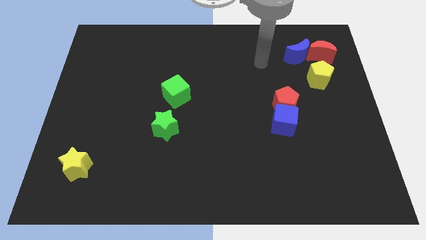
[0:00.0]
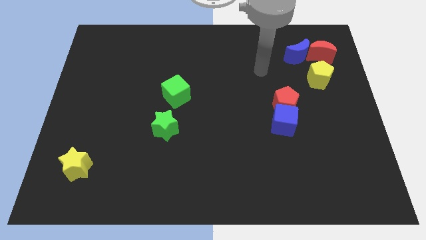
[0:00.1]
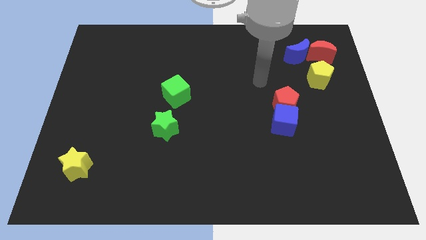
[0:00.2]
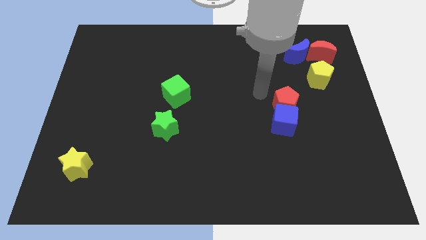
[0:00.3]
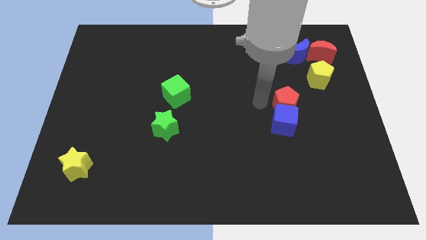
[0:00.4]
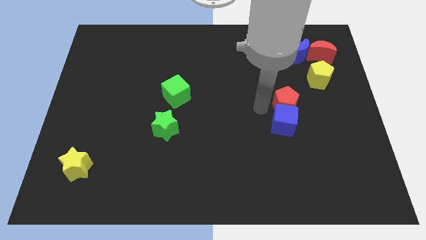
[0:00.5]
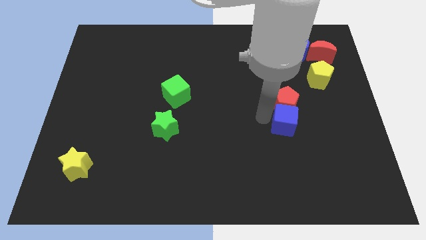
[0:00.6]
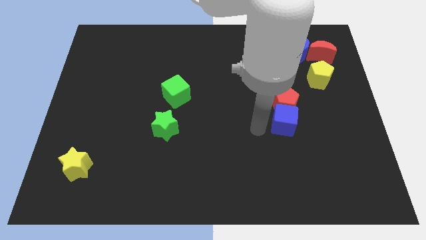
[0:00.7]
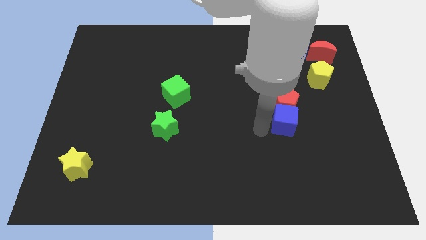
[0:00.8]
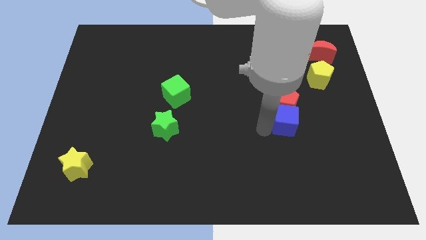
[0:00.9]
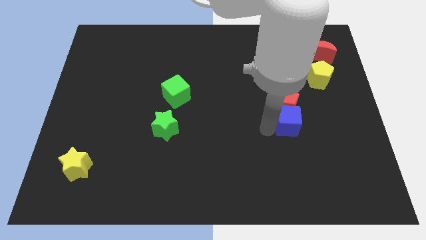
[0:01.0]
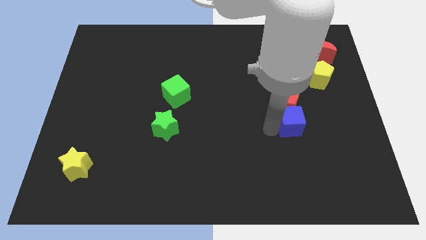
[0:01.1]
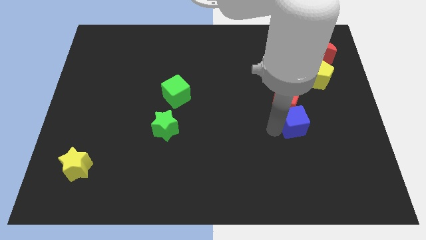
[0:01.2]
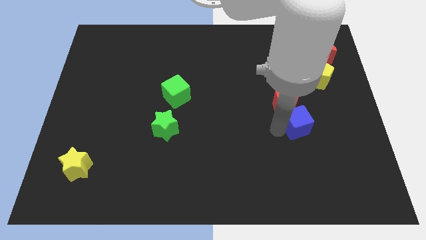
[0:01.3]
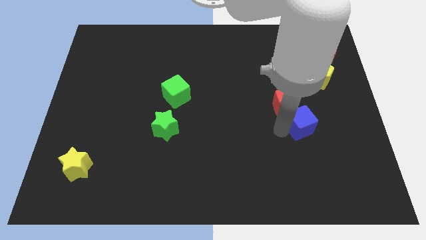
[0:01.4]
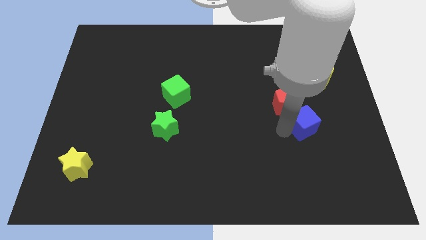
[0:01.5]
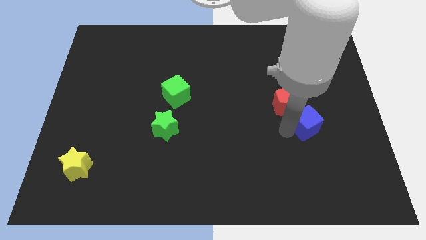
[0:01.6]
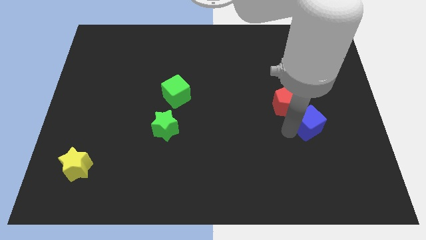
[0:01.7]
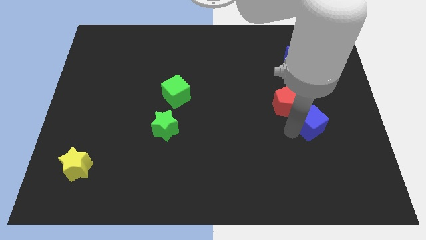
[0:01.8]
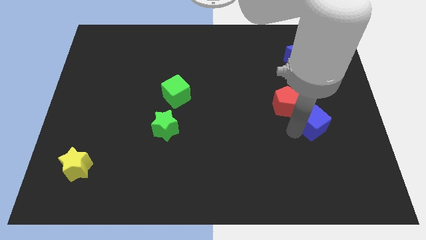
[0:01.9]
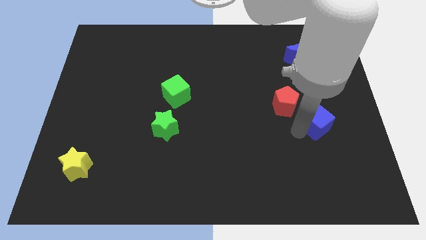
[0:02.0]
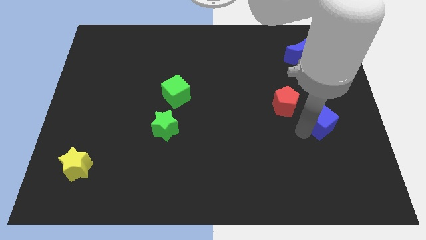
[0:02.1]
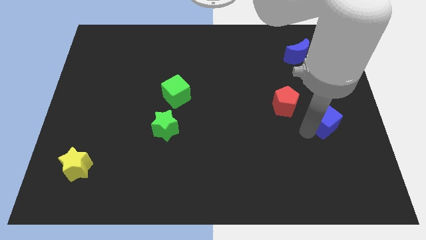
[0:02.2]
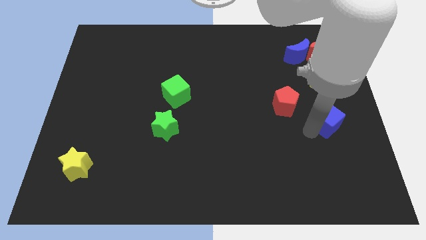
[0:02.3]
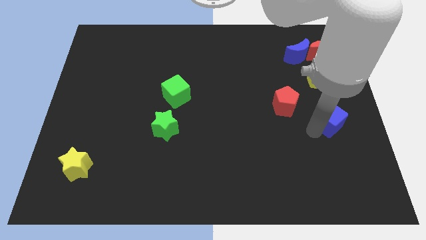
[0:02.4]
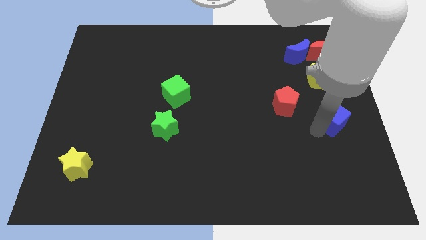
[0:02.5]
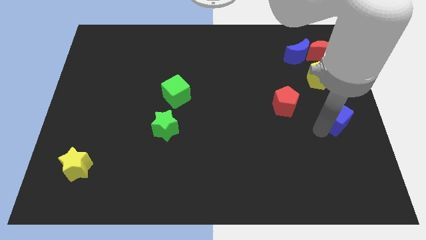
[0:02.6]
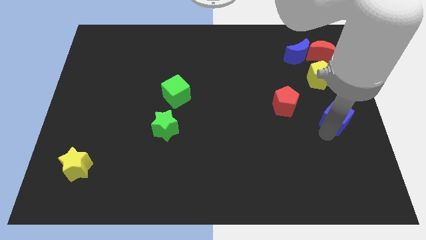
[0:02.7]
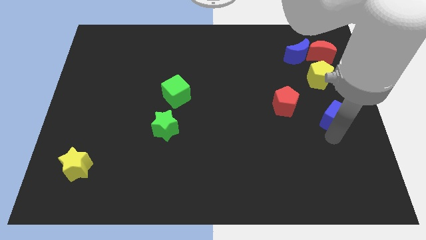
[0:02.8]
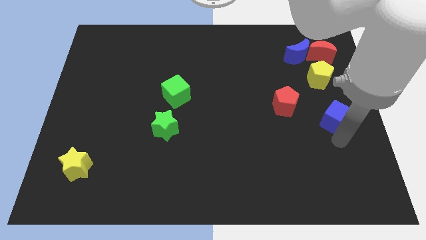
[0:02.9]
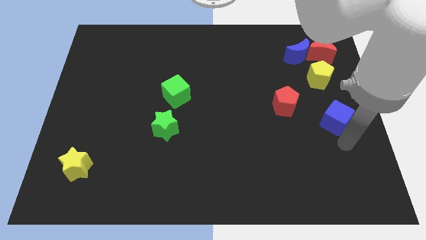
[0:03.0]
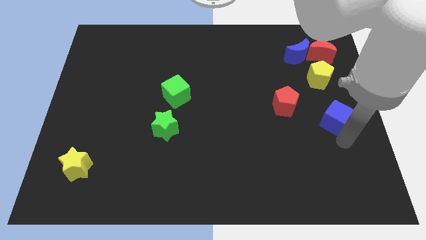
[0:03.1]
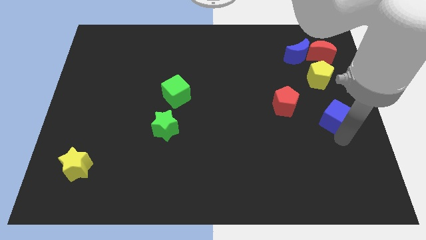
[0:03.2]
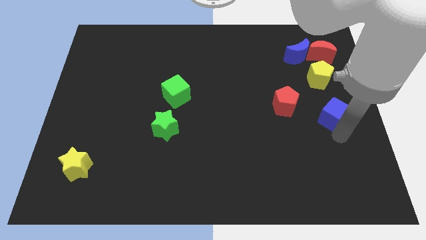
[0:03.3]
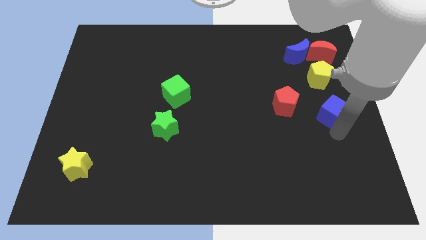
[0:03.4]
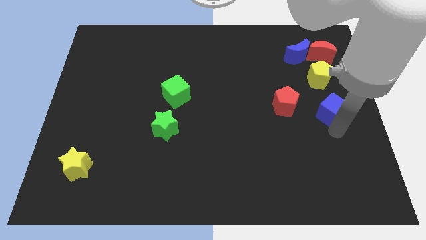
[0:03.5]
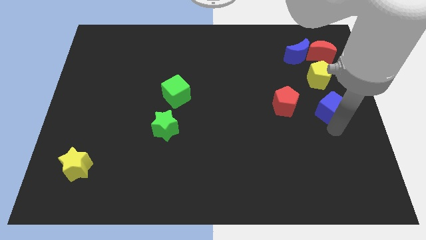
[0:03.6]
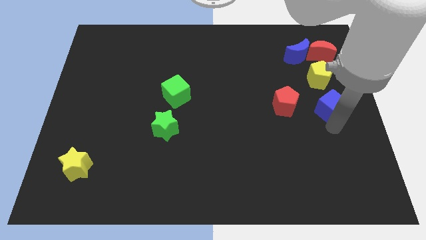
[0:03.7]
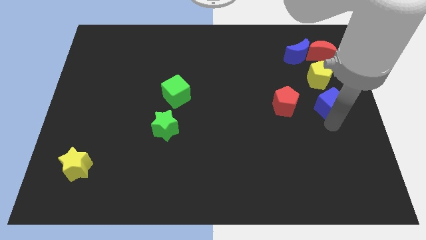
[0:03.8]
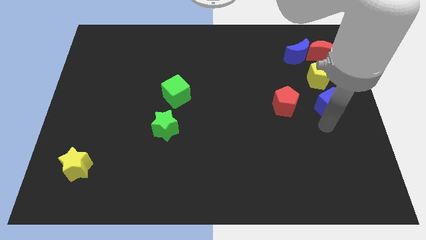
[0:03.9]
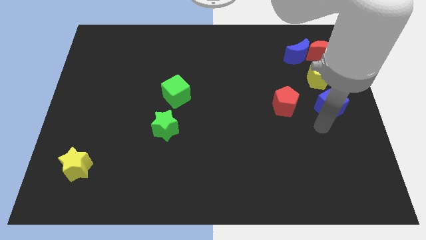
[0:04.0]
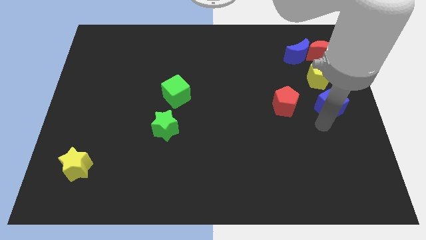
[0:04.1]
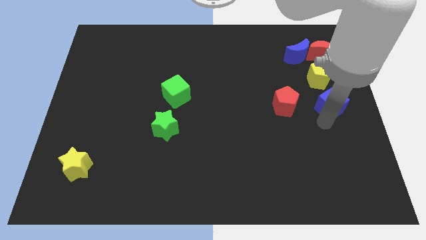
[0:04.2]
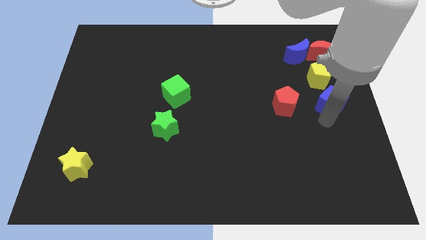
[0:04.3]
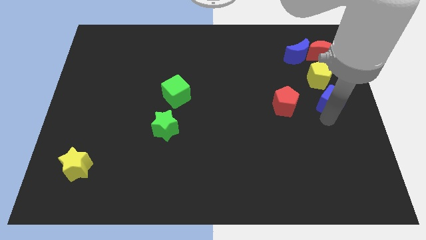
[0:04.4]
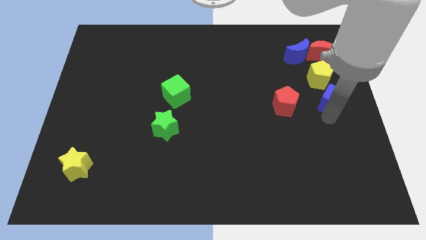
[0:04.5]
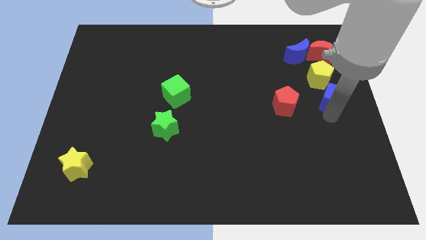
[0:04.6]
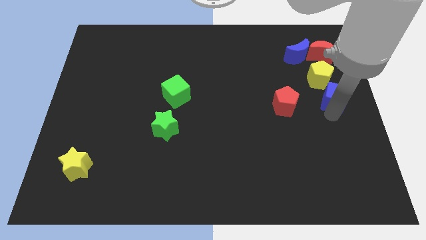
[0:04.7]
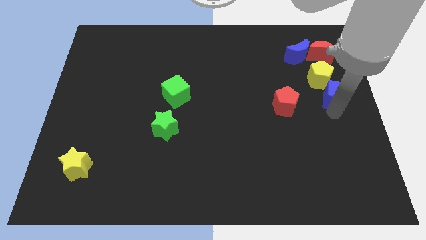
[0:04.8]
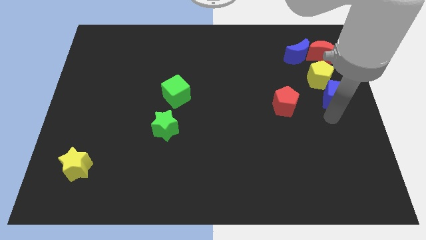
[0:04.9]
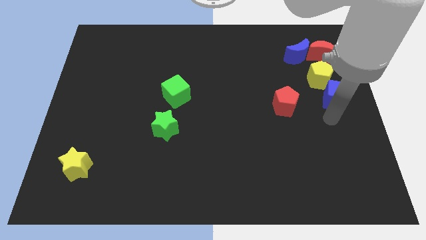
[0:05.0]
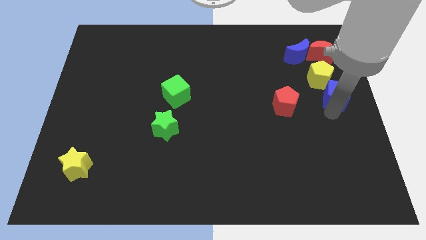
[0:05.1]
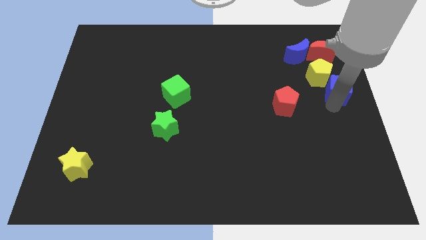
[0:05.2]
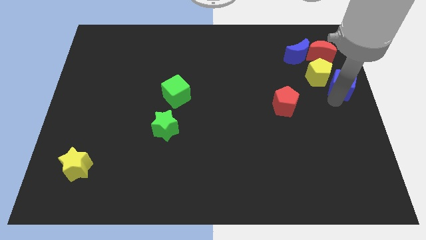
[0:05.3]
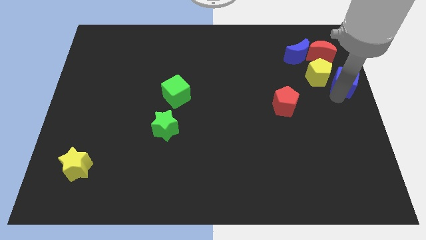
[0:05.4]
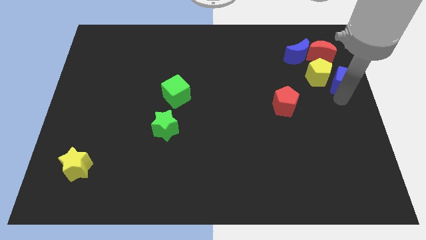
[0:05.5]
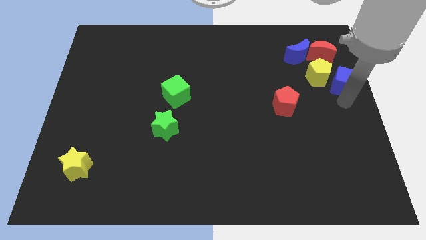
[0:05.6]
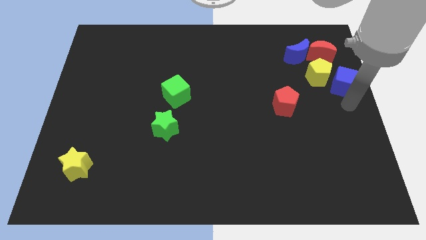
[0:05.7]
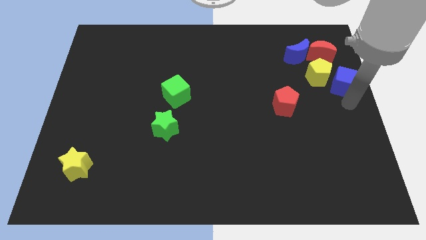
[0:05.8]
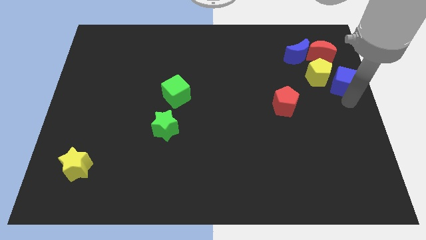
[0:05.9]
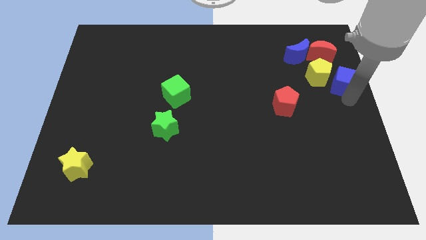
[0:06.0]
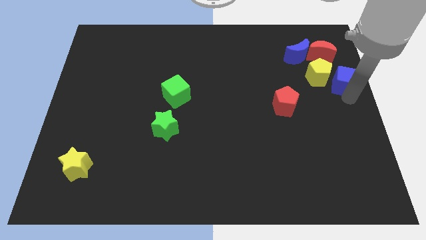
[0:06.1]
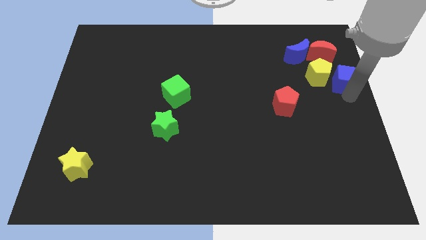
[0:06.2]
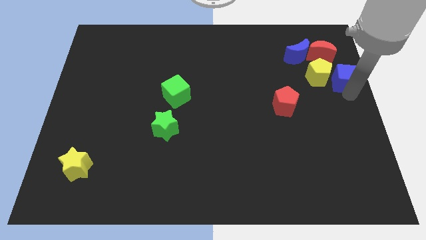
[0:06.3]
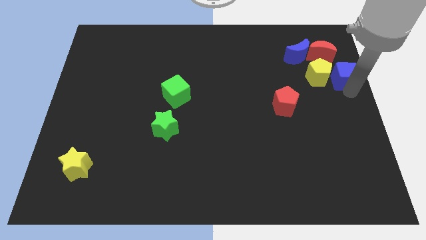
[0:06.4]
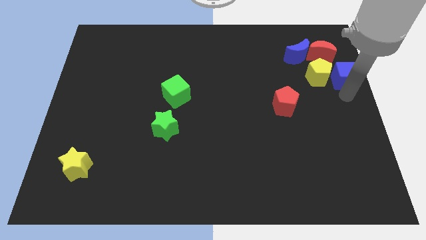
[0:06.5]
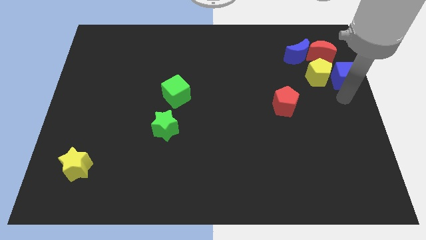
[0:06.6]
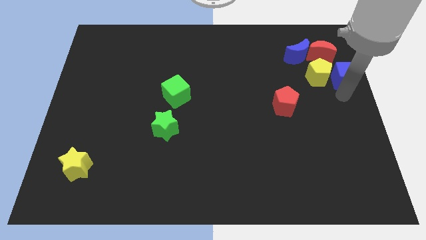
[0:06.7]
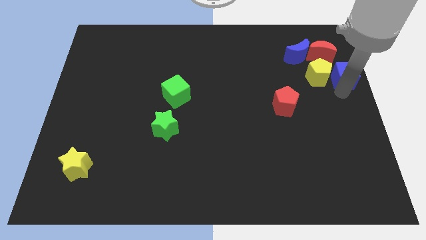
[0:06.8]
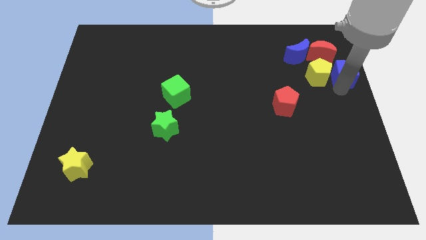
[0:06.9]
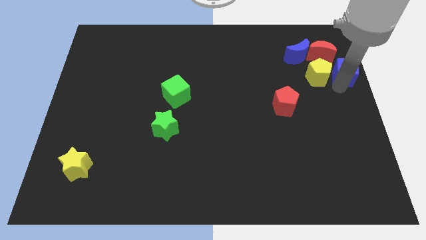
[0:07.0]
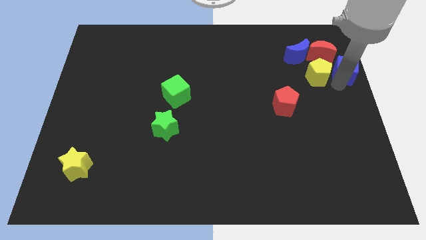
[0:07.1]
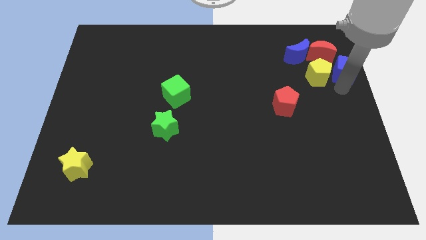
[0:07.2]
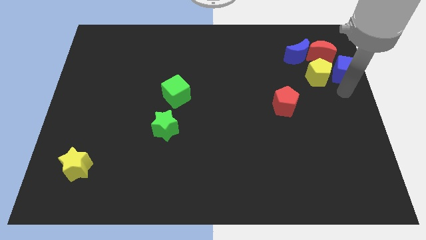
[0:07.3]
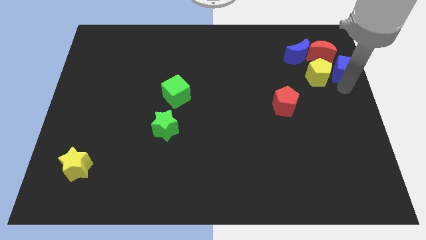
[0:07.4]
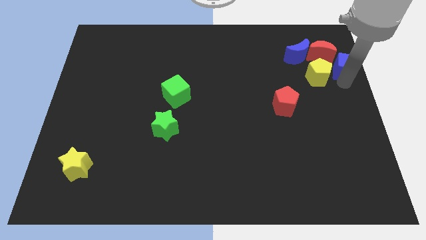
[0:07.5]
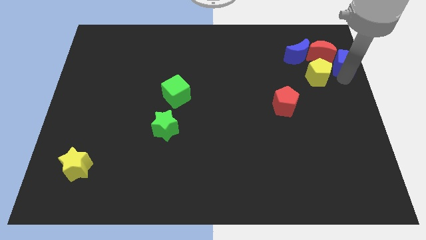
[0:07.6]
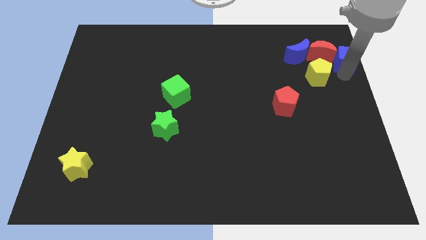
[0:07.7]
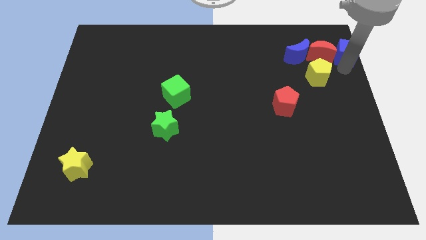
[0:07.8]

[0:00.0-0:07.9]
slide the blue cube to the top right corner
